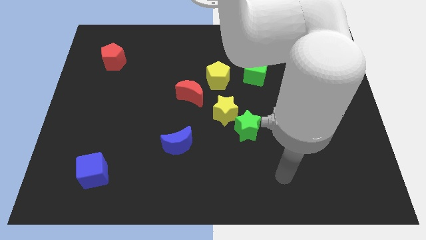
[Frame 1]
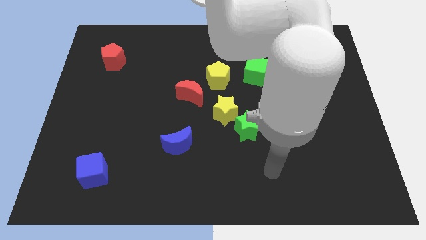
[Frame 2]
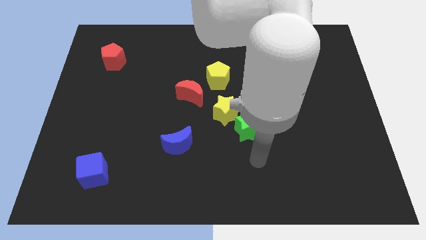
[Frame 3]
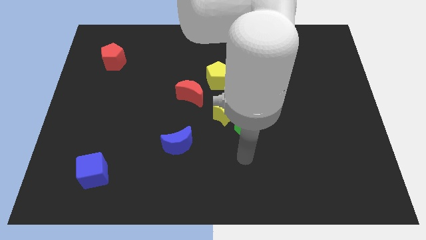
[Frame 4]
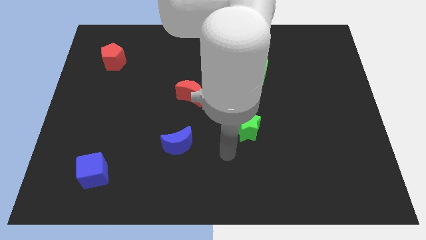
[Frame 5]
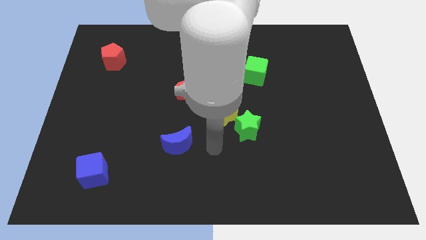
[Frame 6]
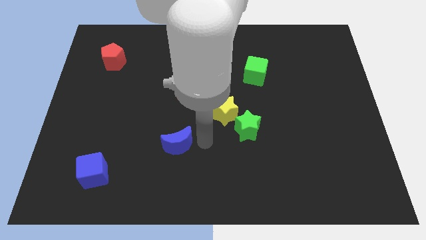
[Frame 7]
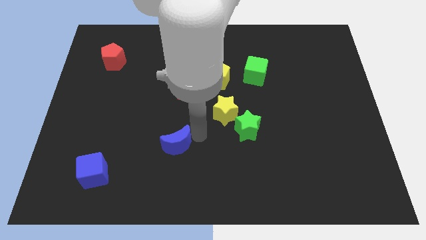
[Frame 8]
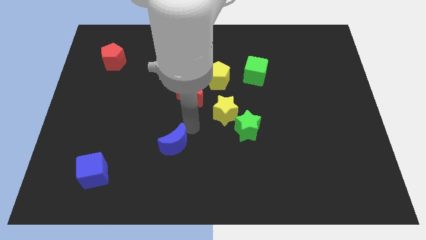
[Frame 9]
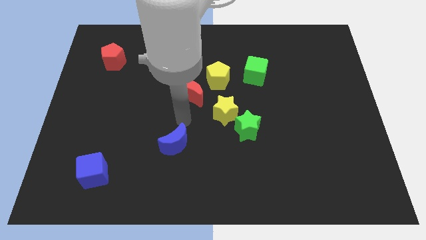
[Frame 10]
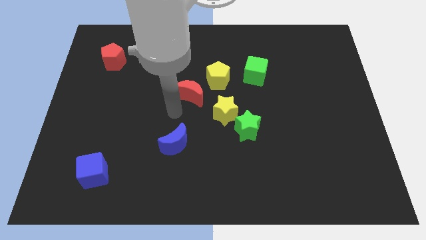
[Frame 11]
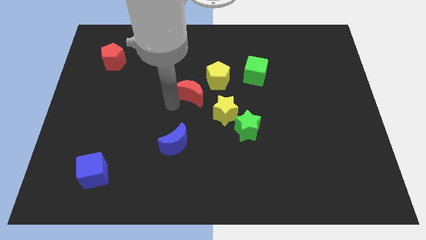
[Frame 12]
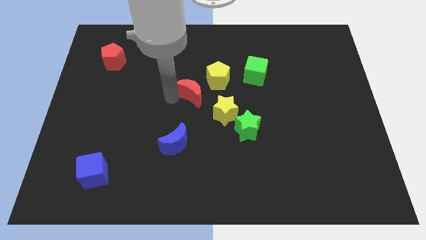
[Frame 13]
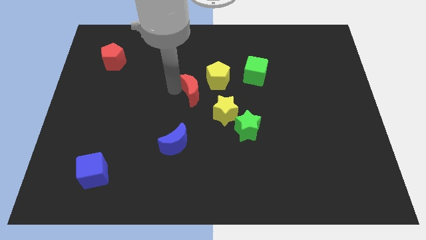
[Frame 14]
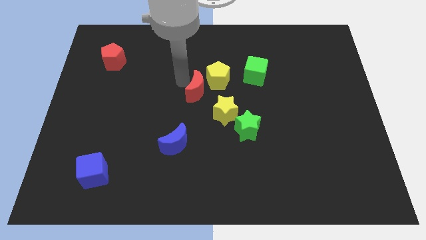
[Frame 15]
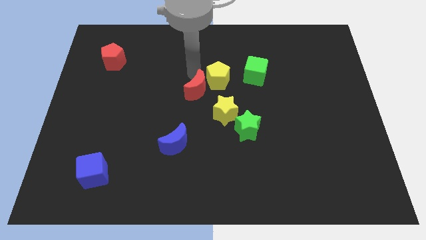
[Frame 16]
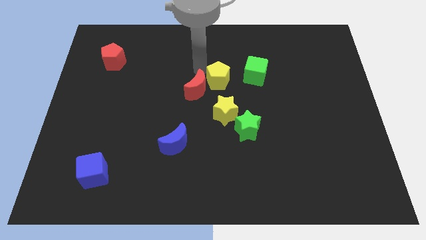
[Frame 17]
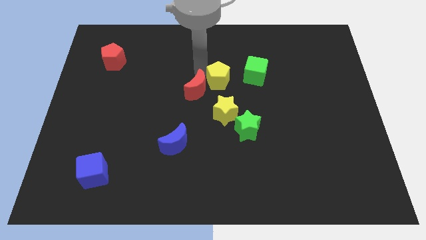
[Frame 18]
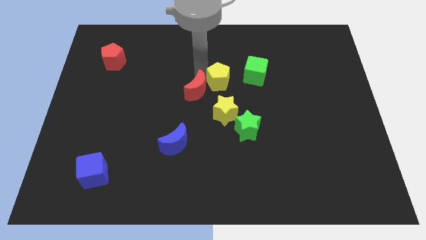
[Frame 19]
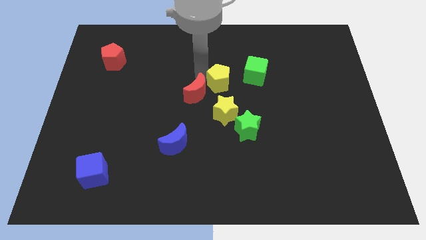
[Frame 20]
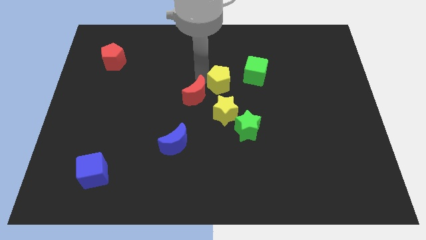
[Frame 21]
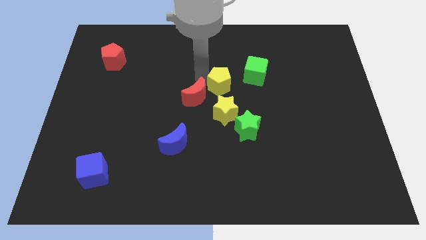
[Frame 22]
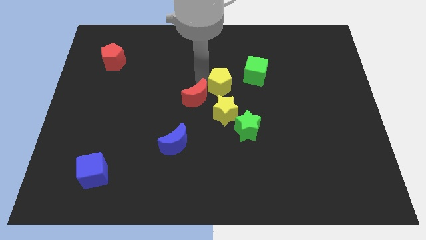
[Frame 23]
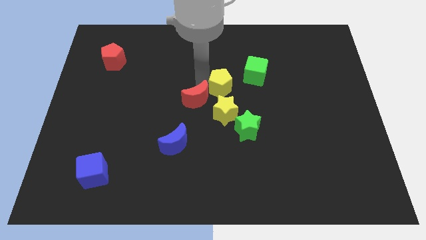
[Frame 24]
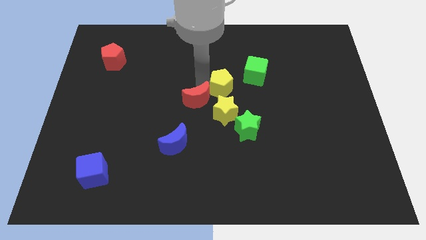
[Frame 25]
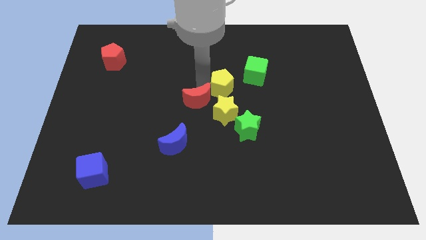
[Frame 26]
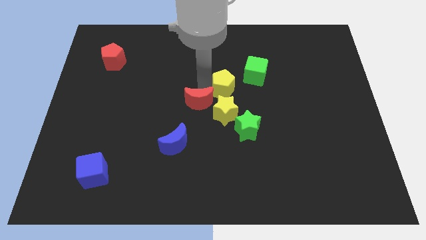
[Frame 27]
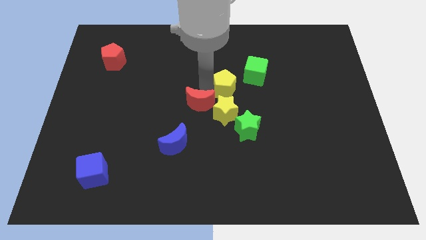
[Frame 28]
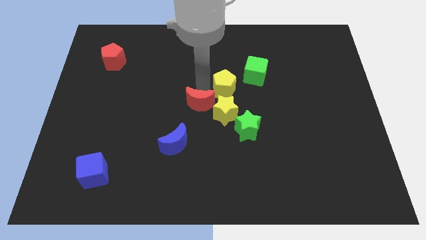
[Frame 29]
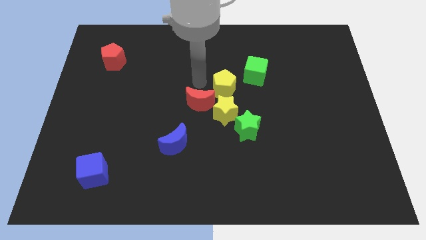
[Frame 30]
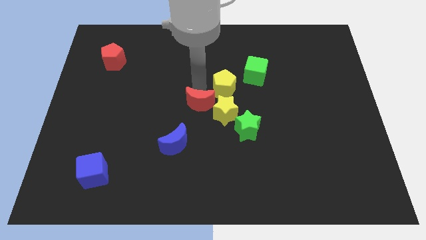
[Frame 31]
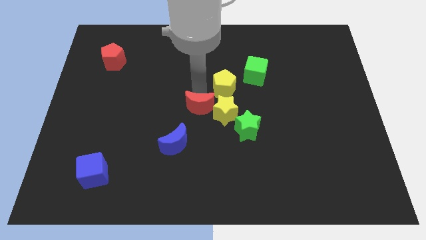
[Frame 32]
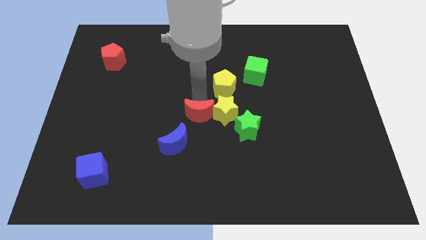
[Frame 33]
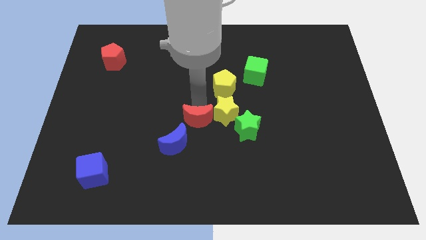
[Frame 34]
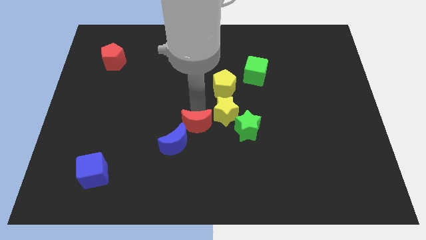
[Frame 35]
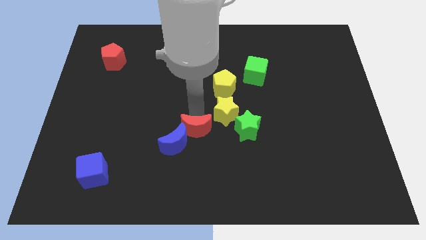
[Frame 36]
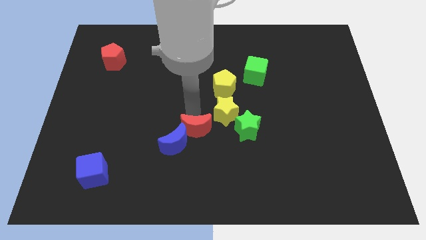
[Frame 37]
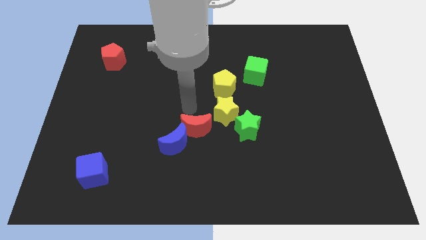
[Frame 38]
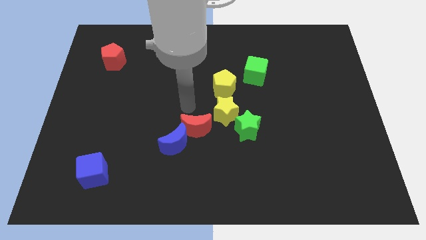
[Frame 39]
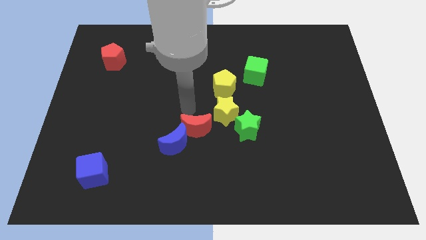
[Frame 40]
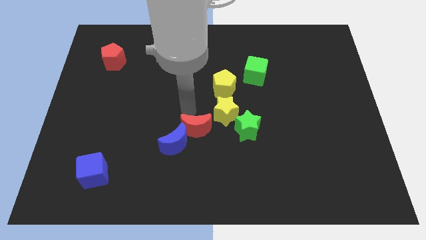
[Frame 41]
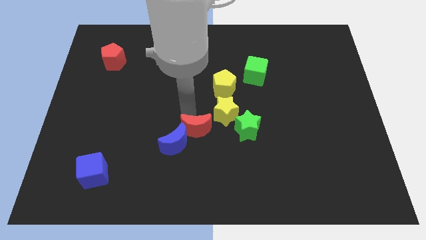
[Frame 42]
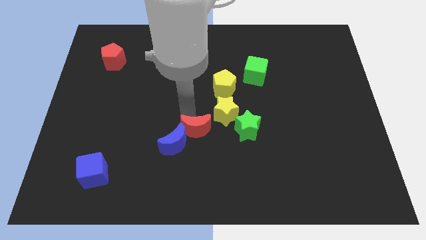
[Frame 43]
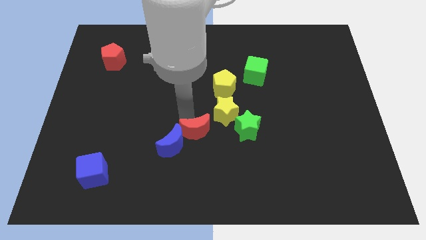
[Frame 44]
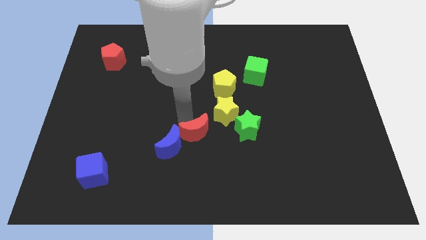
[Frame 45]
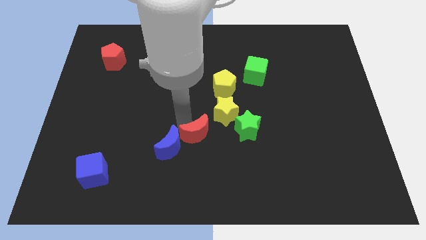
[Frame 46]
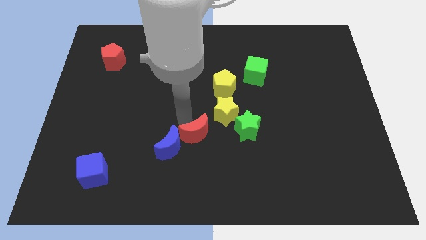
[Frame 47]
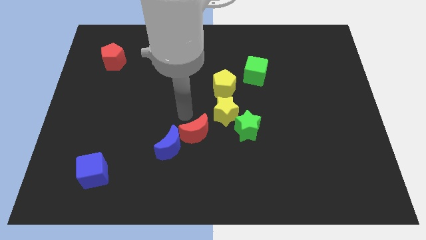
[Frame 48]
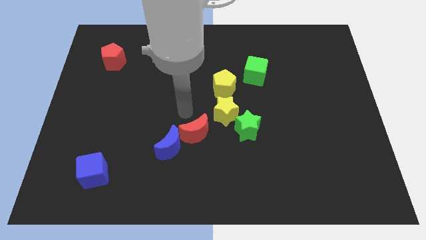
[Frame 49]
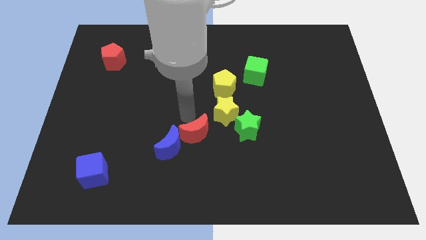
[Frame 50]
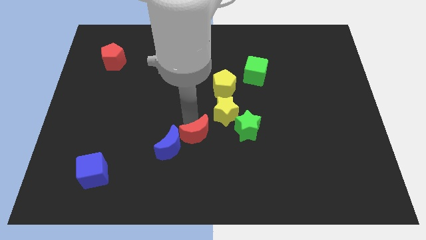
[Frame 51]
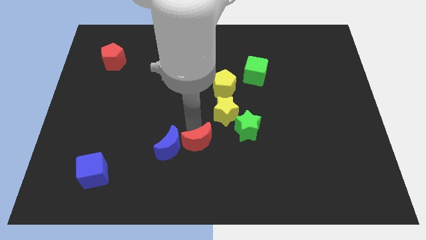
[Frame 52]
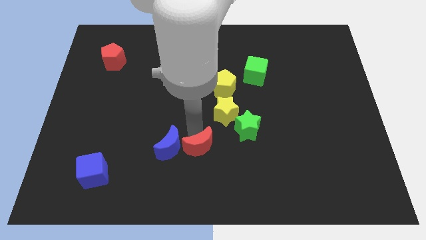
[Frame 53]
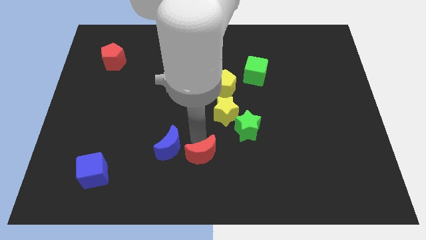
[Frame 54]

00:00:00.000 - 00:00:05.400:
move the red moon to the bottom side
